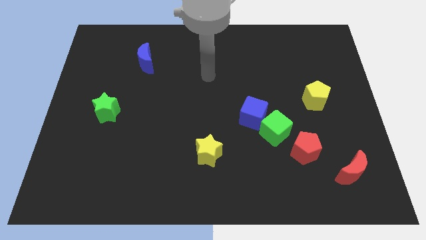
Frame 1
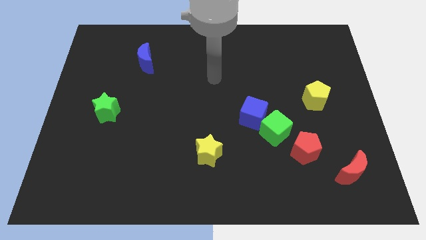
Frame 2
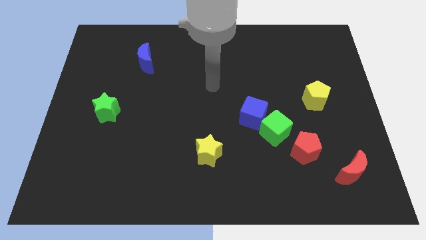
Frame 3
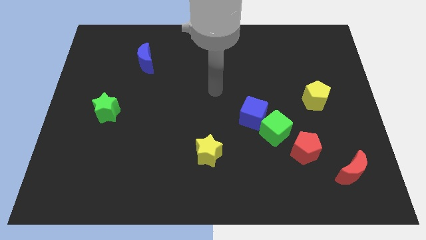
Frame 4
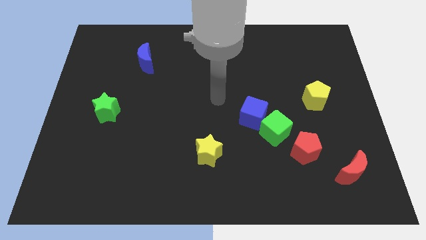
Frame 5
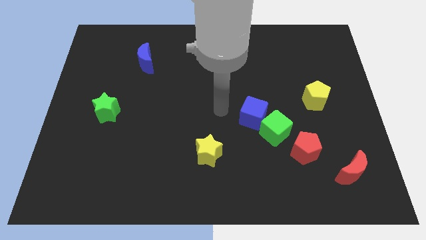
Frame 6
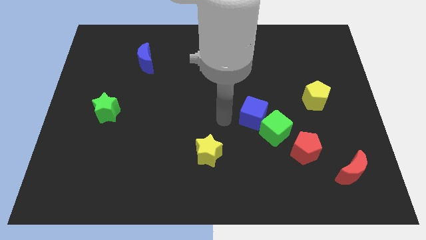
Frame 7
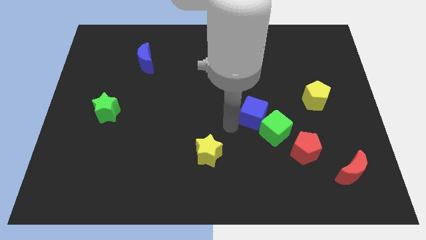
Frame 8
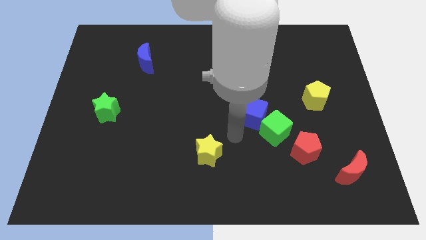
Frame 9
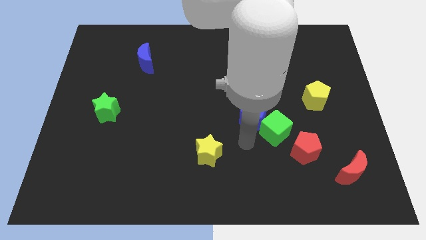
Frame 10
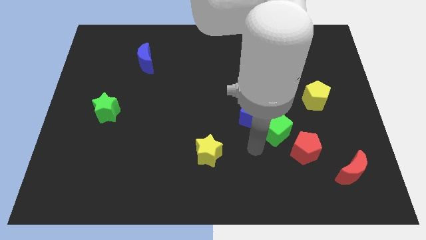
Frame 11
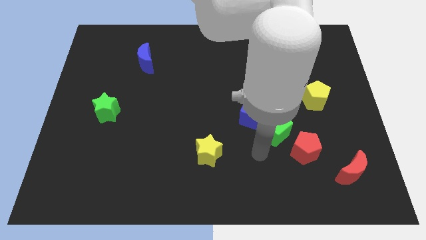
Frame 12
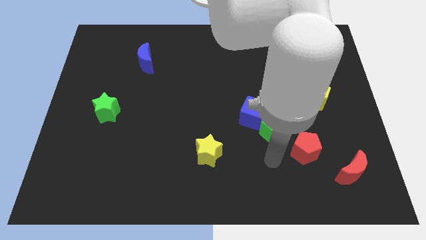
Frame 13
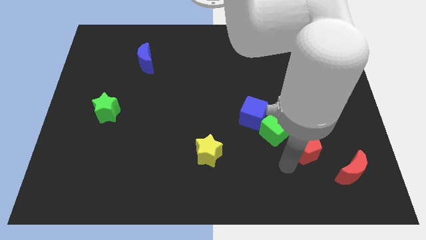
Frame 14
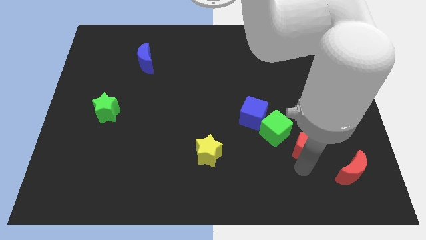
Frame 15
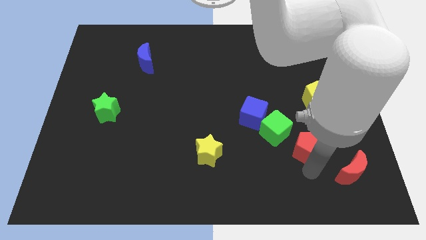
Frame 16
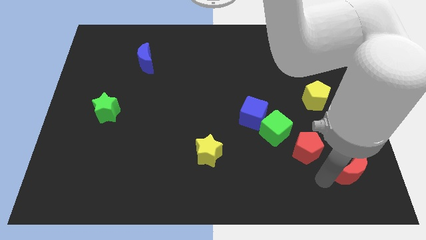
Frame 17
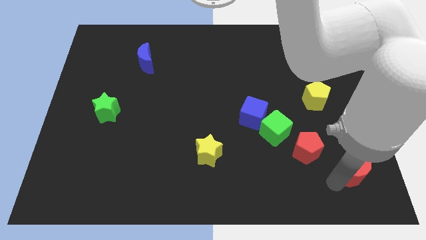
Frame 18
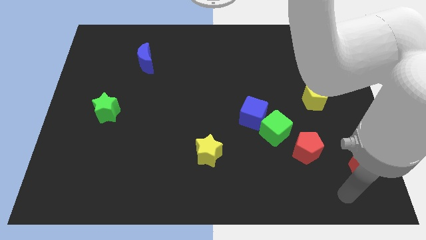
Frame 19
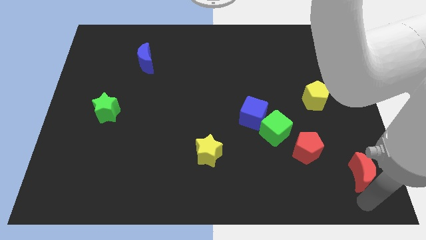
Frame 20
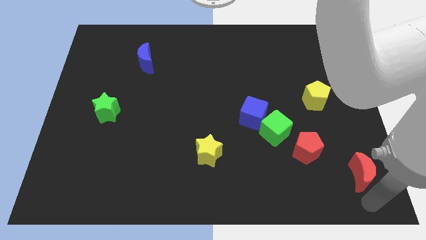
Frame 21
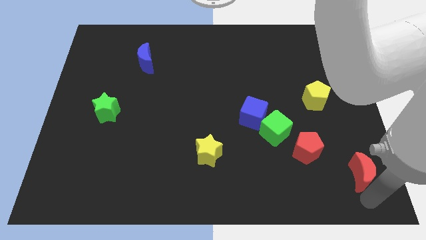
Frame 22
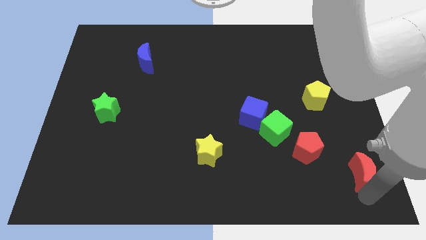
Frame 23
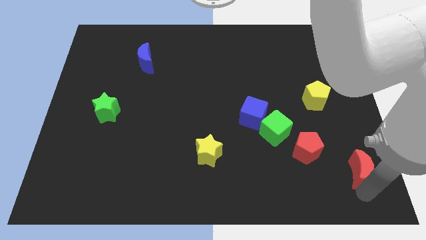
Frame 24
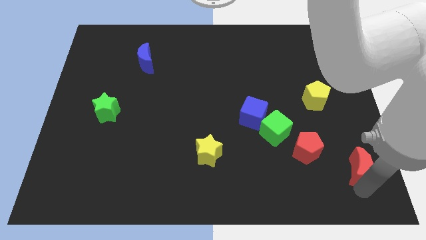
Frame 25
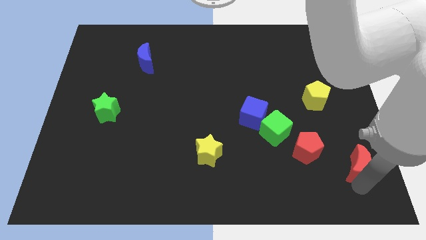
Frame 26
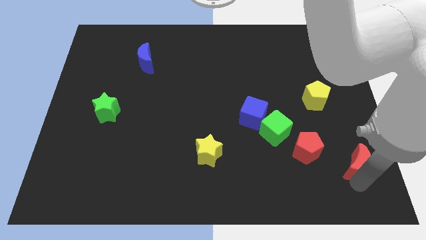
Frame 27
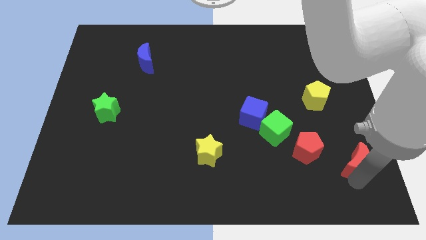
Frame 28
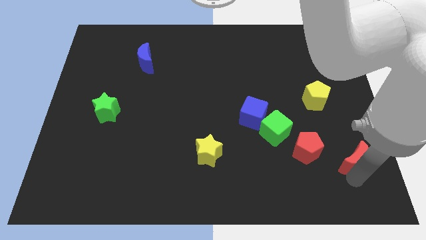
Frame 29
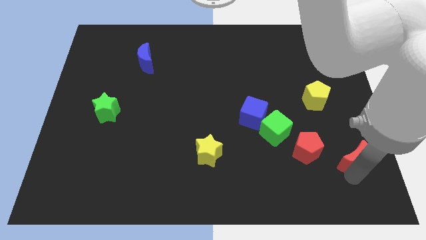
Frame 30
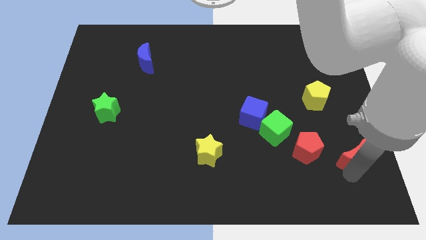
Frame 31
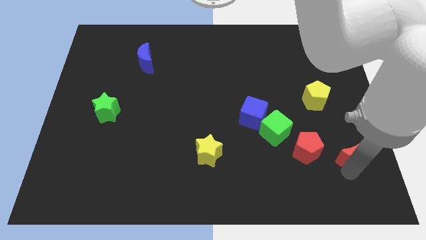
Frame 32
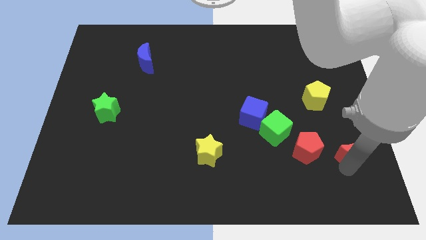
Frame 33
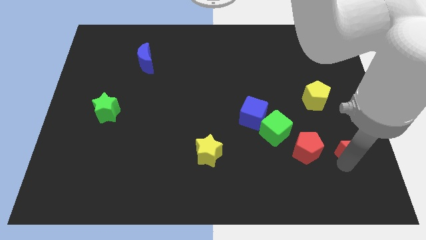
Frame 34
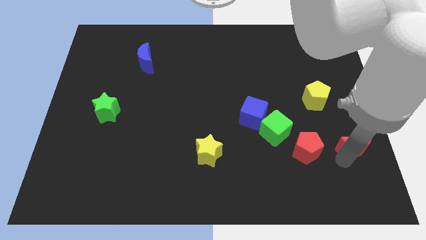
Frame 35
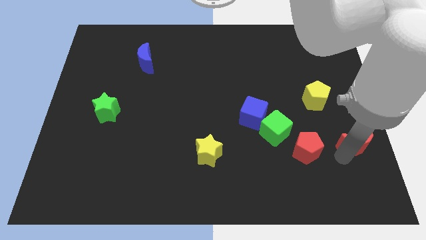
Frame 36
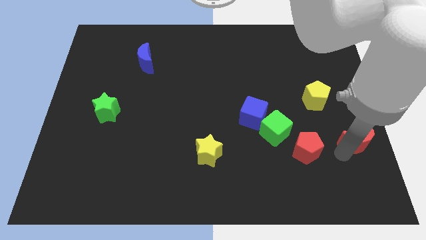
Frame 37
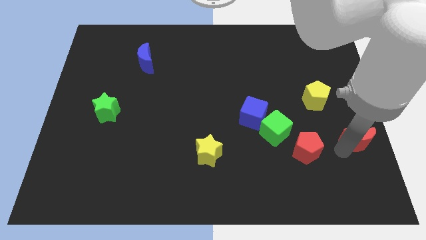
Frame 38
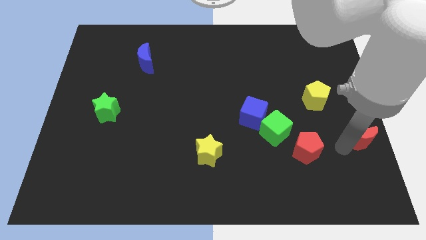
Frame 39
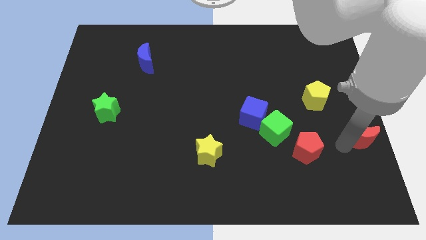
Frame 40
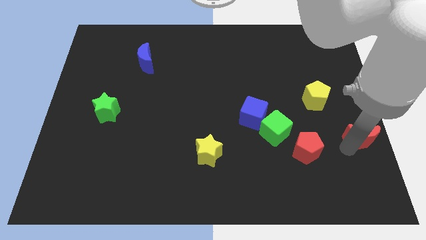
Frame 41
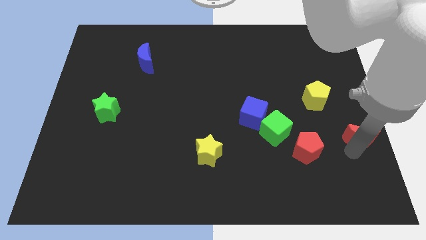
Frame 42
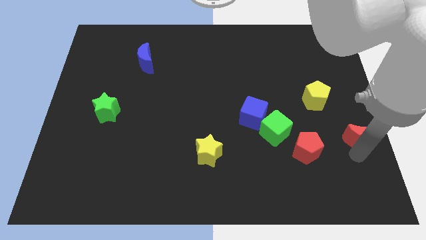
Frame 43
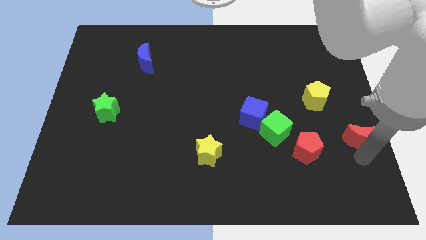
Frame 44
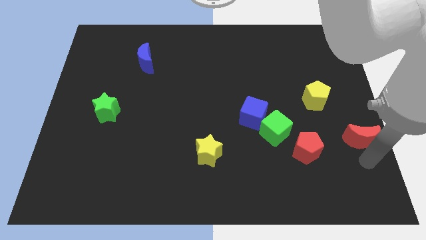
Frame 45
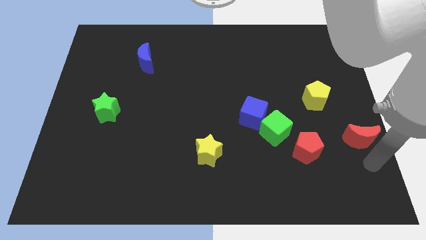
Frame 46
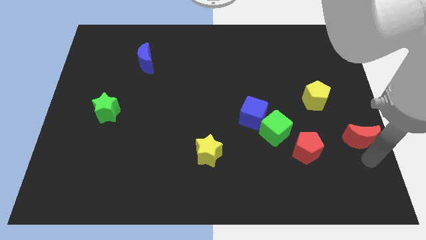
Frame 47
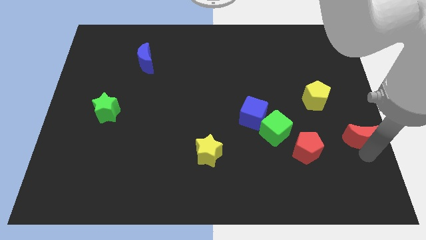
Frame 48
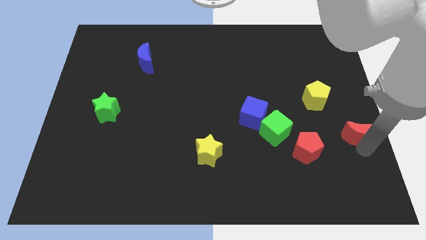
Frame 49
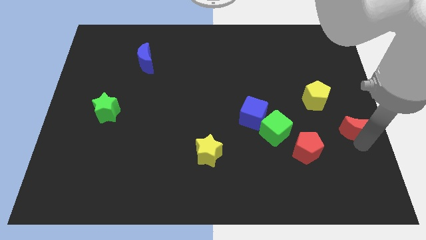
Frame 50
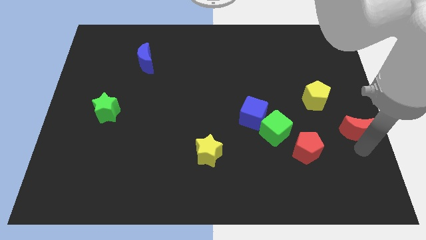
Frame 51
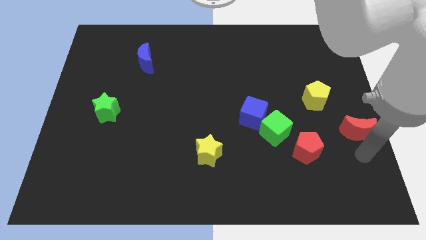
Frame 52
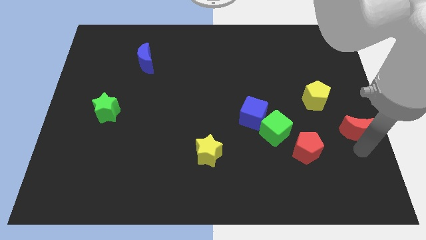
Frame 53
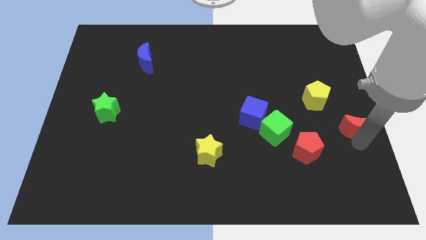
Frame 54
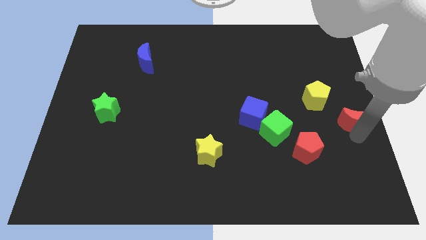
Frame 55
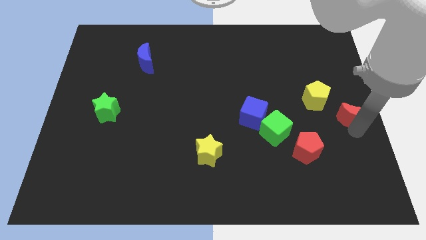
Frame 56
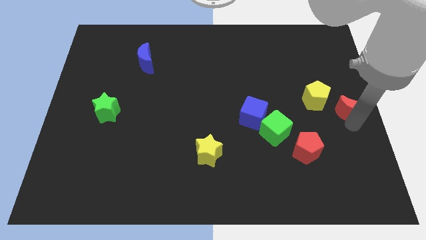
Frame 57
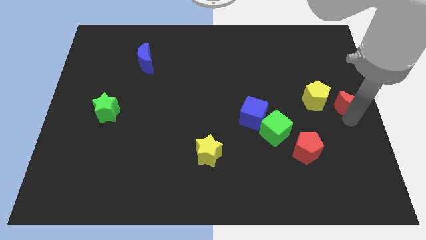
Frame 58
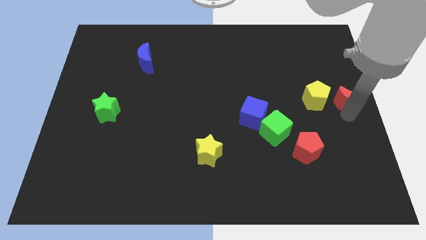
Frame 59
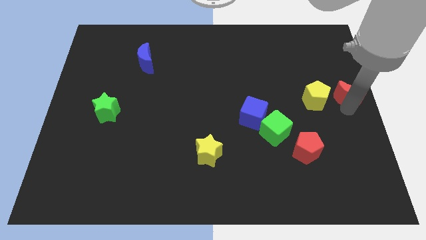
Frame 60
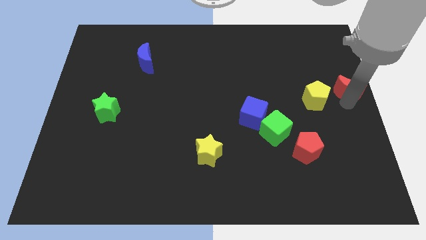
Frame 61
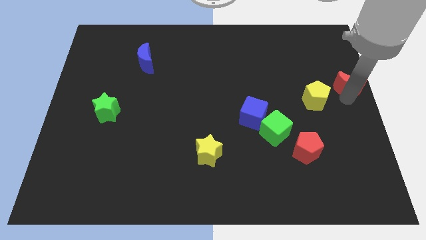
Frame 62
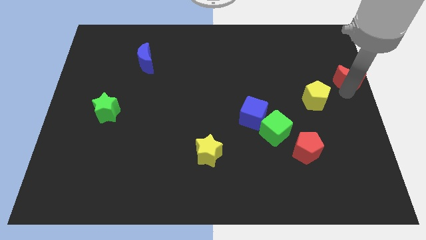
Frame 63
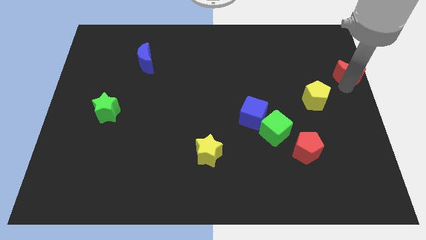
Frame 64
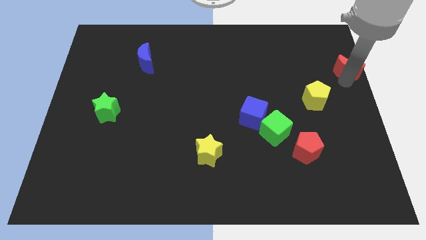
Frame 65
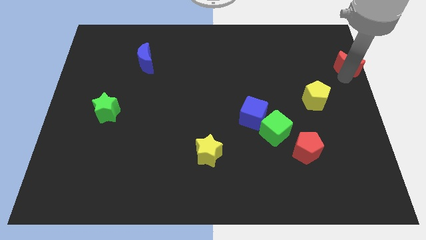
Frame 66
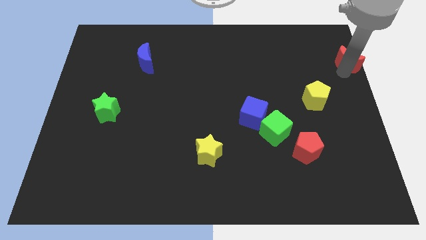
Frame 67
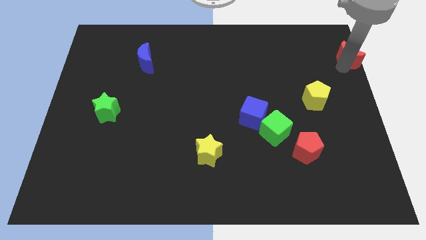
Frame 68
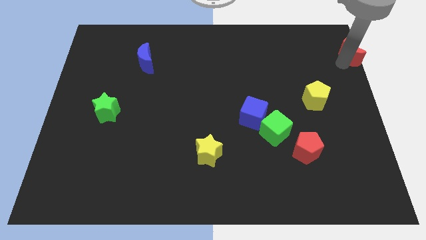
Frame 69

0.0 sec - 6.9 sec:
move the red moon to the top right

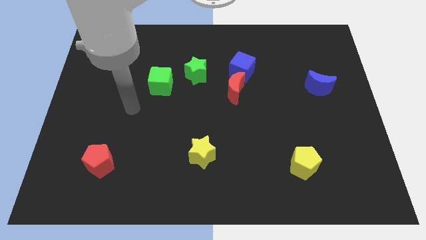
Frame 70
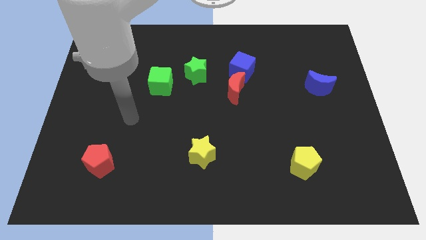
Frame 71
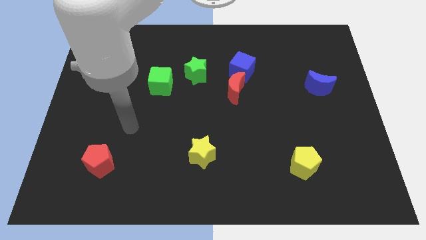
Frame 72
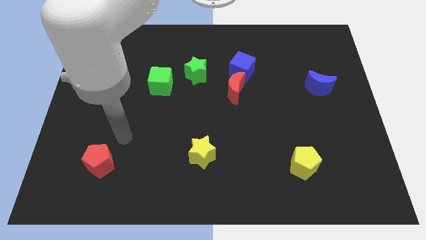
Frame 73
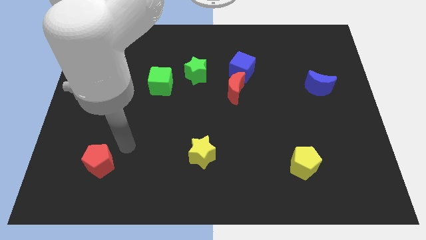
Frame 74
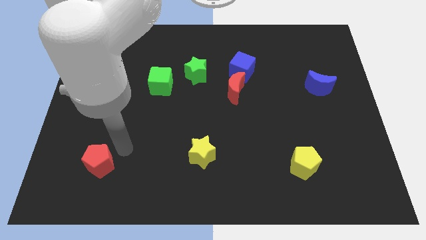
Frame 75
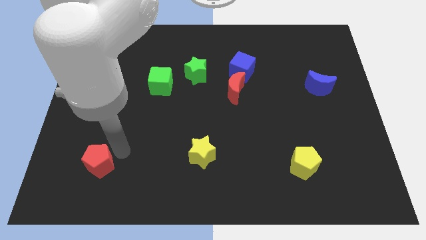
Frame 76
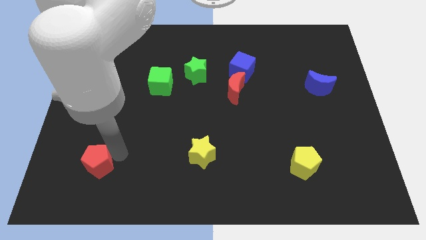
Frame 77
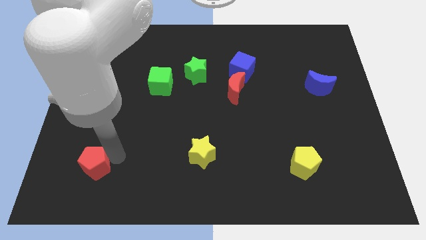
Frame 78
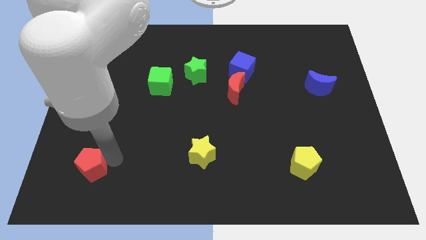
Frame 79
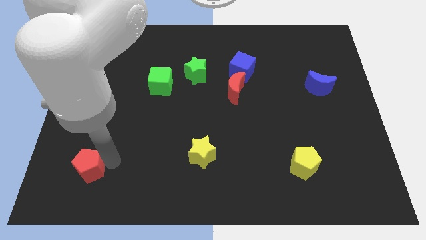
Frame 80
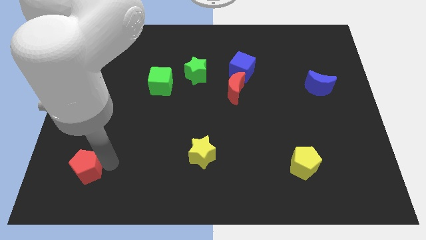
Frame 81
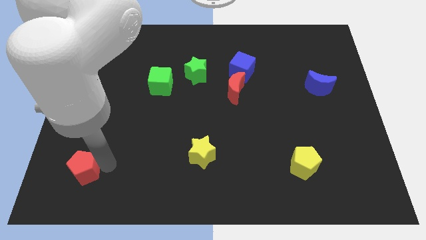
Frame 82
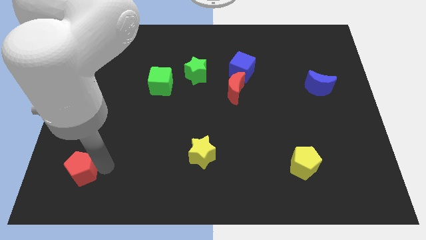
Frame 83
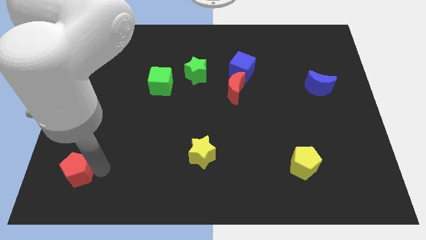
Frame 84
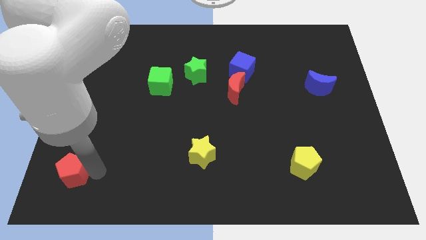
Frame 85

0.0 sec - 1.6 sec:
move the red pentagon to the bottom left of the board
